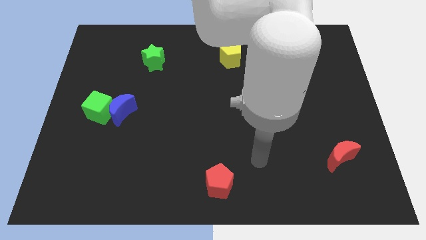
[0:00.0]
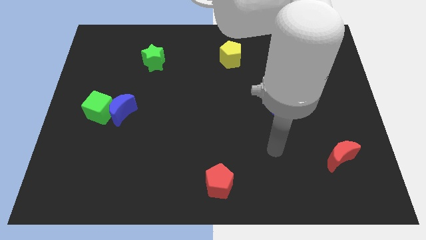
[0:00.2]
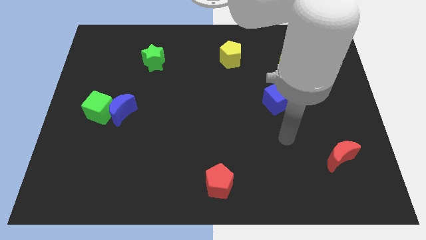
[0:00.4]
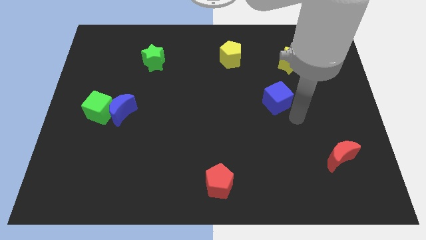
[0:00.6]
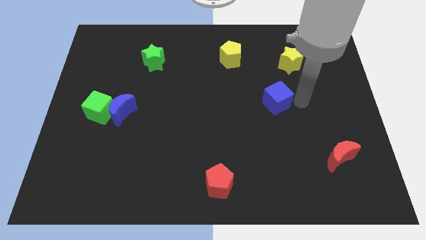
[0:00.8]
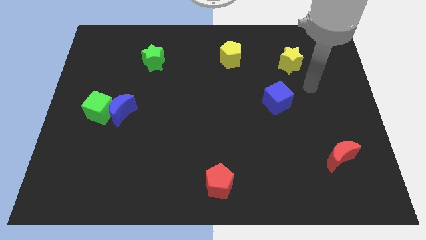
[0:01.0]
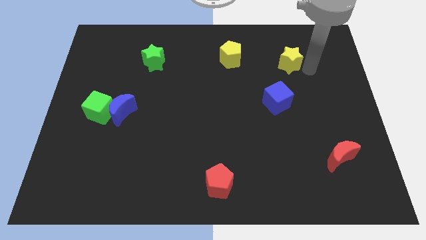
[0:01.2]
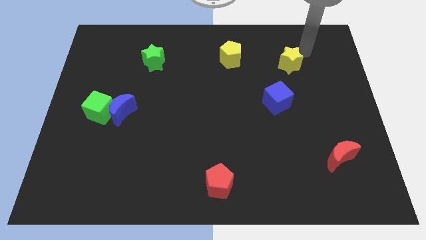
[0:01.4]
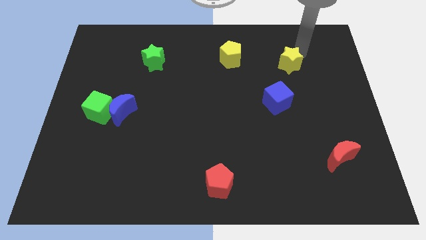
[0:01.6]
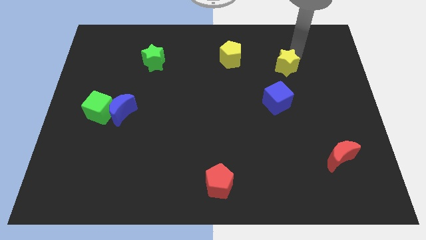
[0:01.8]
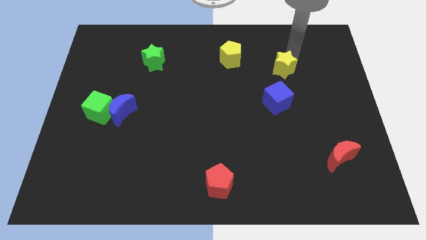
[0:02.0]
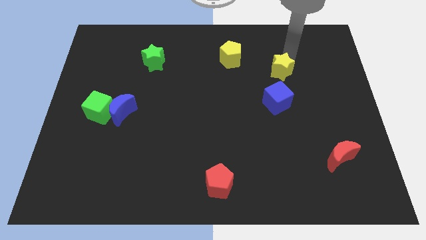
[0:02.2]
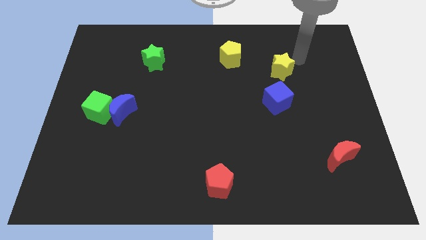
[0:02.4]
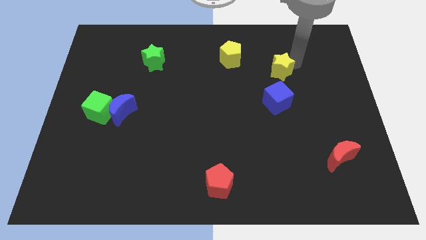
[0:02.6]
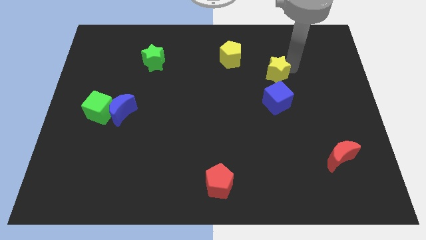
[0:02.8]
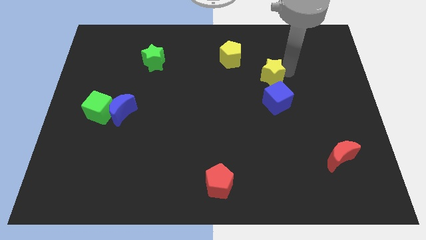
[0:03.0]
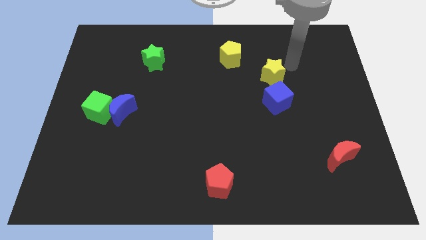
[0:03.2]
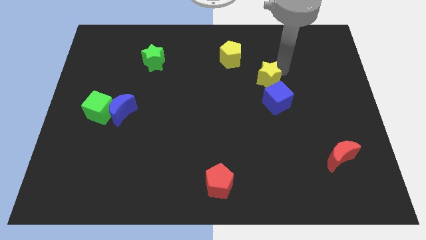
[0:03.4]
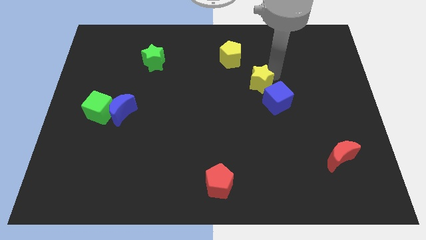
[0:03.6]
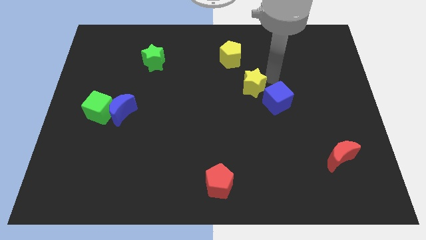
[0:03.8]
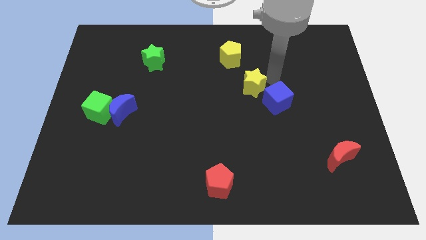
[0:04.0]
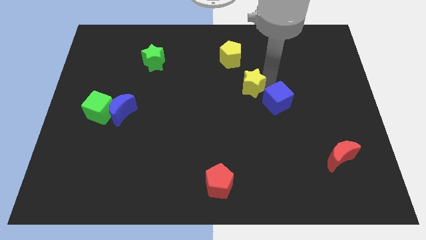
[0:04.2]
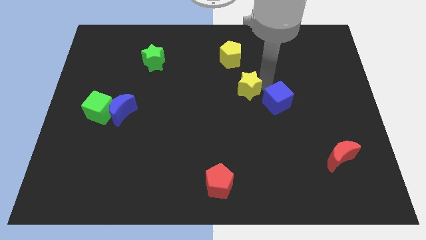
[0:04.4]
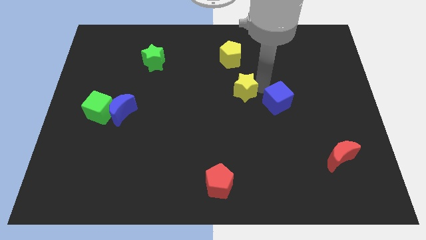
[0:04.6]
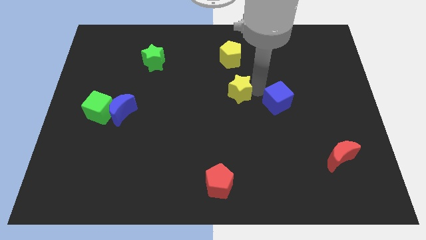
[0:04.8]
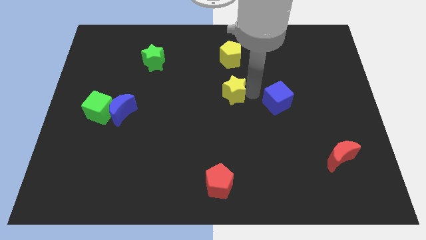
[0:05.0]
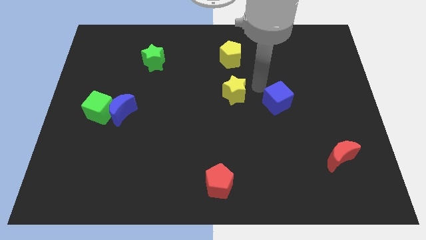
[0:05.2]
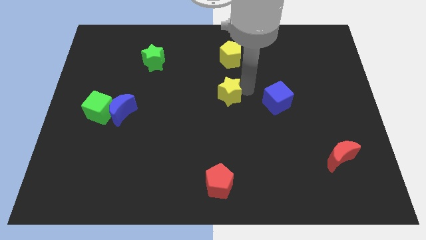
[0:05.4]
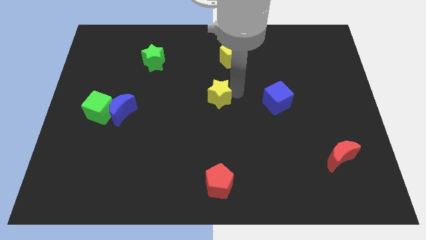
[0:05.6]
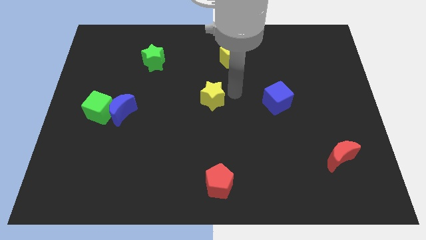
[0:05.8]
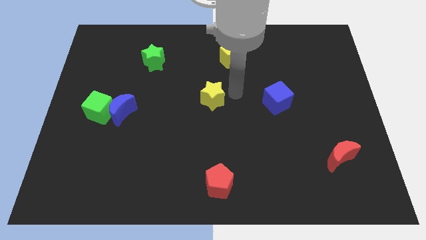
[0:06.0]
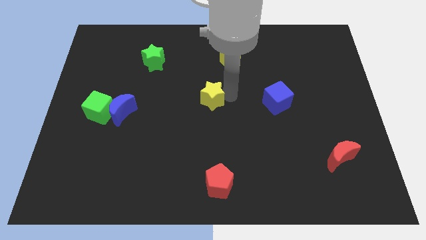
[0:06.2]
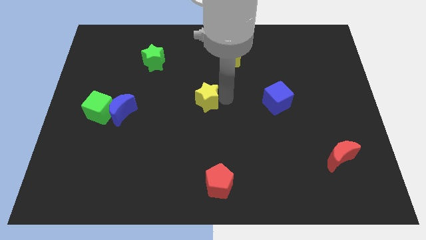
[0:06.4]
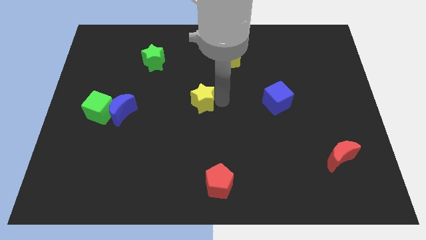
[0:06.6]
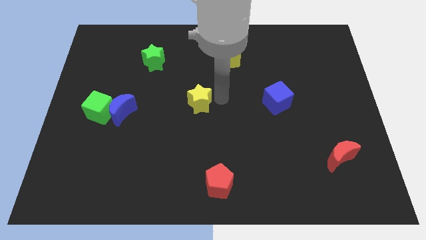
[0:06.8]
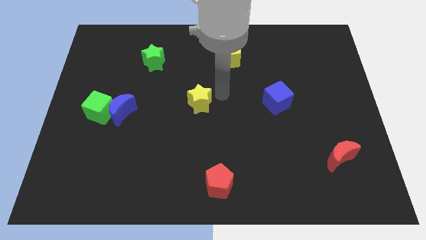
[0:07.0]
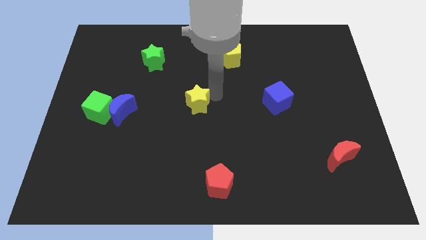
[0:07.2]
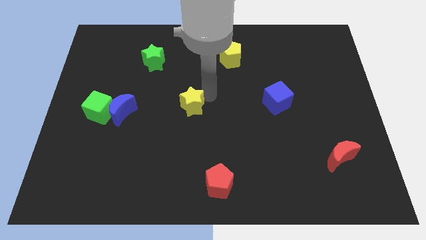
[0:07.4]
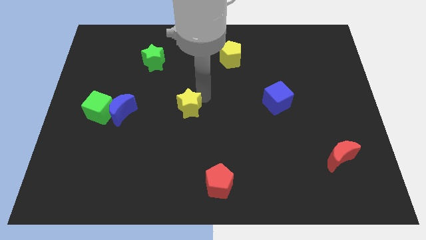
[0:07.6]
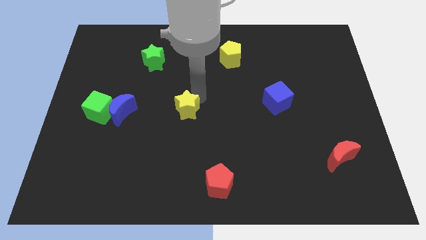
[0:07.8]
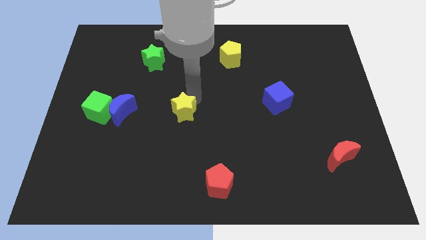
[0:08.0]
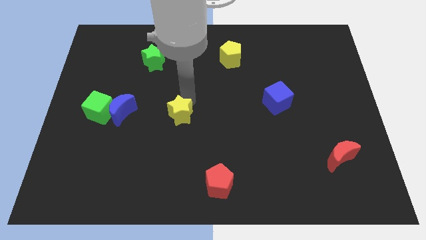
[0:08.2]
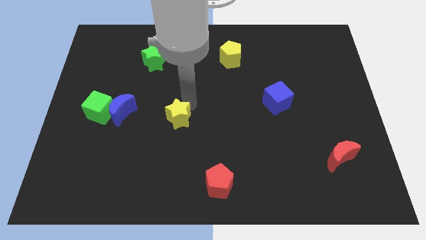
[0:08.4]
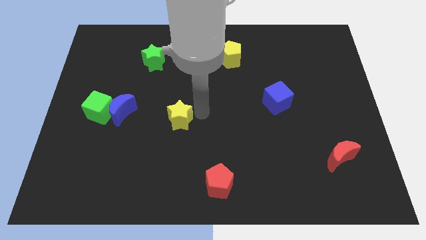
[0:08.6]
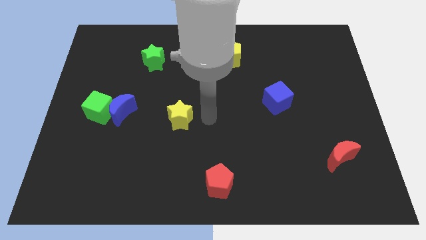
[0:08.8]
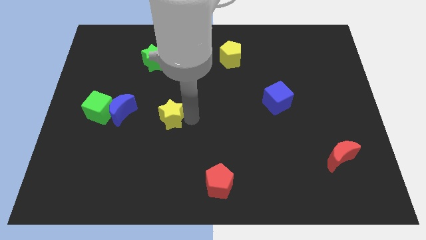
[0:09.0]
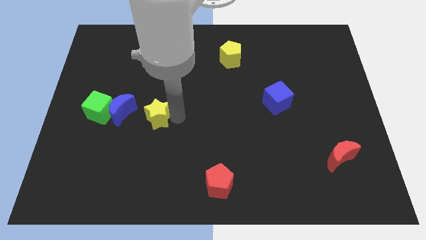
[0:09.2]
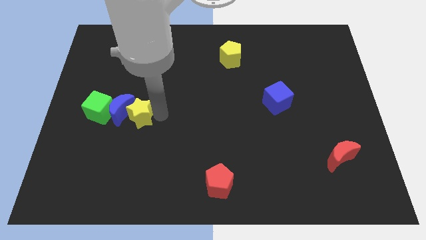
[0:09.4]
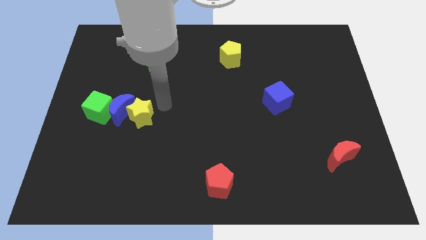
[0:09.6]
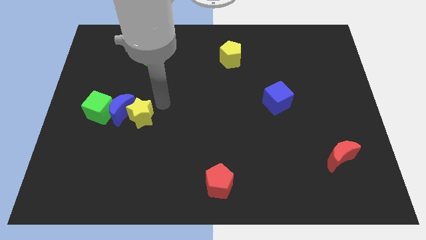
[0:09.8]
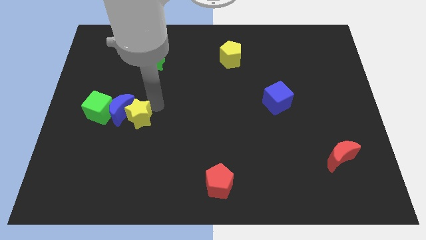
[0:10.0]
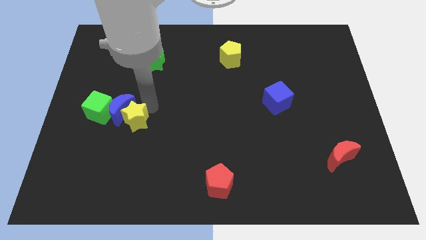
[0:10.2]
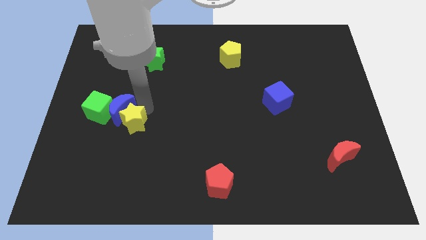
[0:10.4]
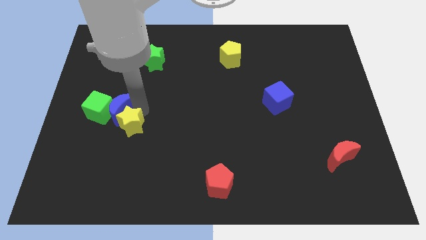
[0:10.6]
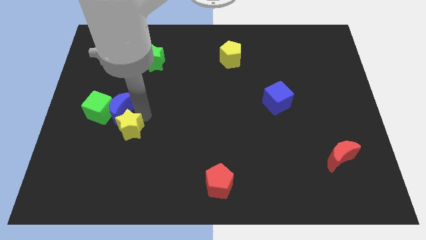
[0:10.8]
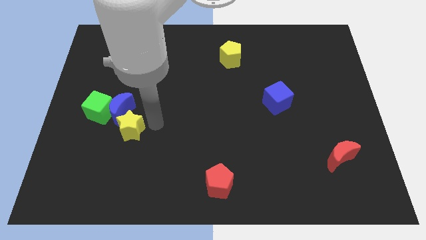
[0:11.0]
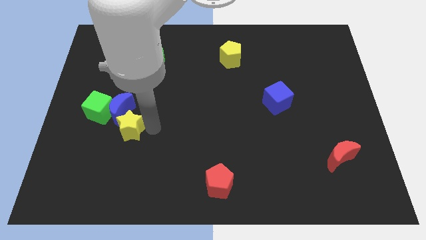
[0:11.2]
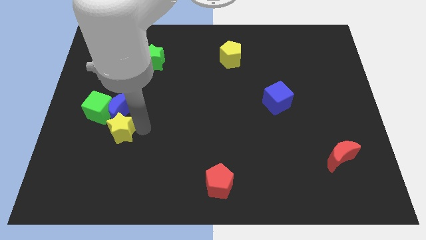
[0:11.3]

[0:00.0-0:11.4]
move the yellow star diagonally down and to the left of the blue moon
